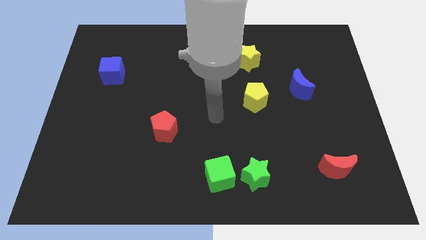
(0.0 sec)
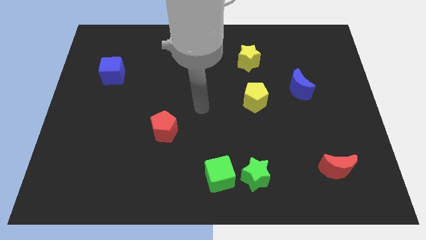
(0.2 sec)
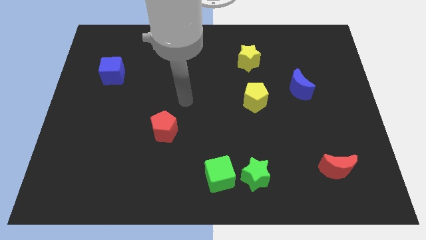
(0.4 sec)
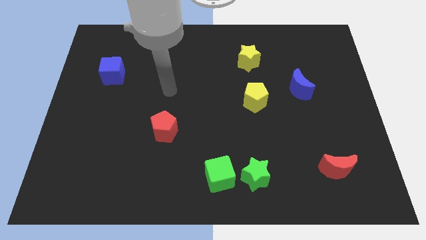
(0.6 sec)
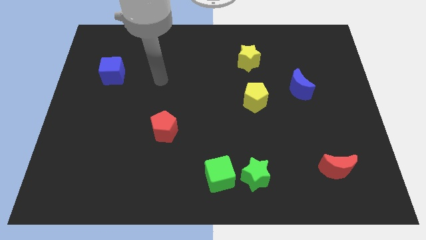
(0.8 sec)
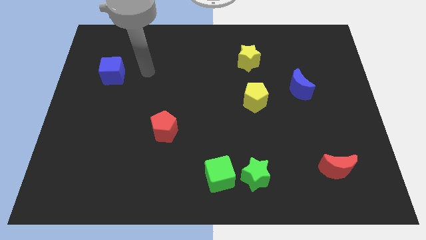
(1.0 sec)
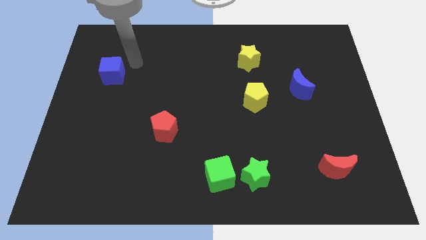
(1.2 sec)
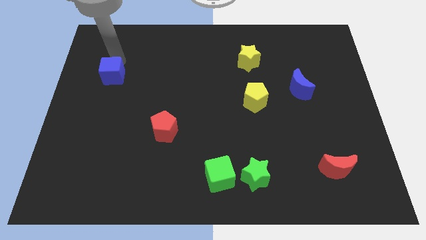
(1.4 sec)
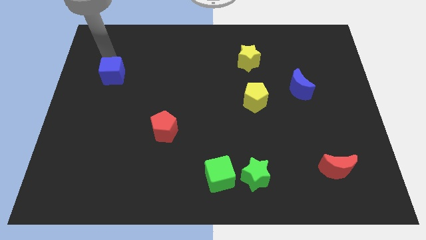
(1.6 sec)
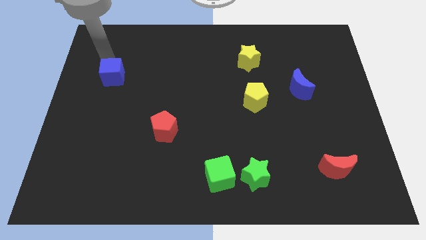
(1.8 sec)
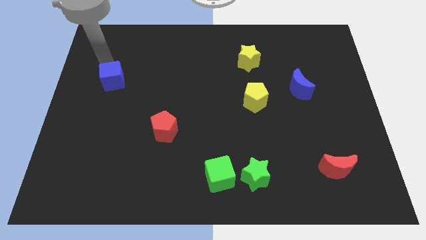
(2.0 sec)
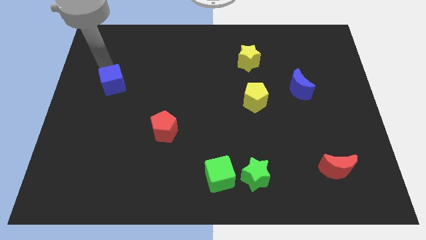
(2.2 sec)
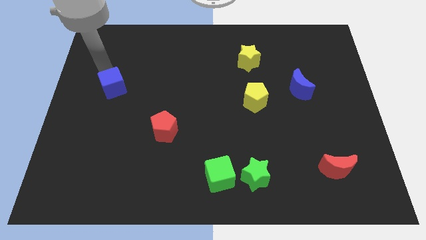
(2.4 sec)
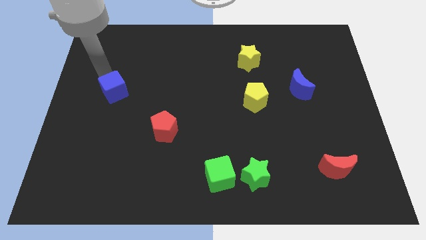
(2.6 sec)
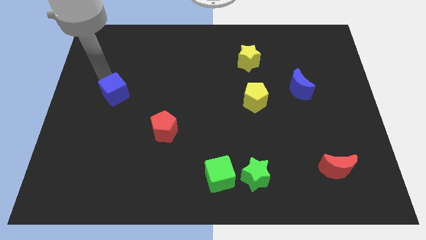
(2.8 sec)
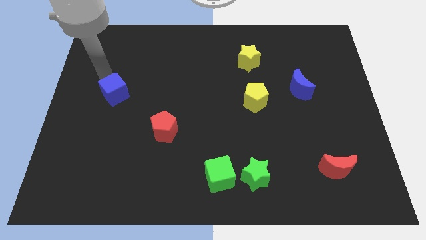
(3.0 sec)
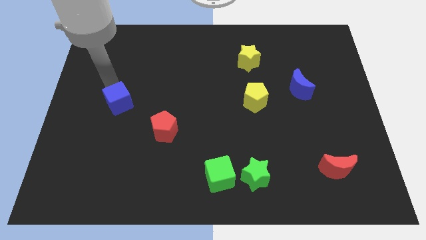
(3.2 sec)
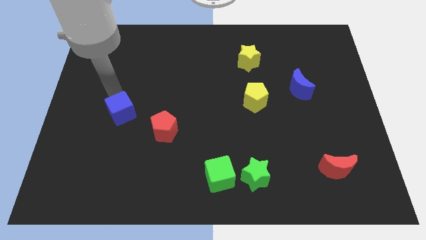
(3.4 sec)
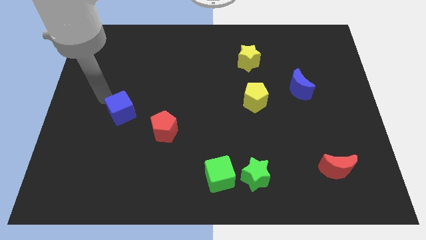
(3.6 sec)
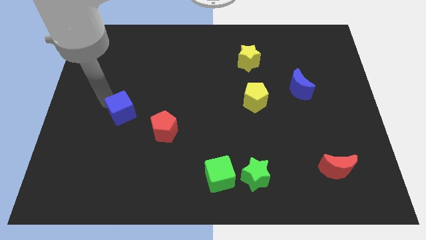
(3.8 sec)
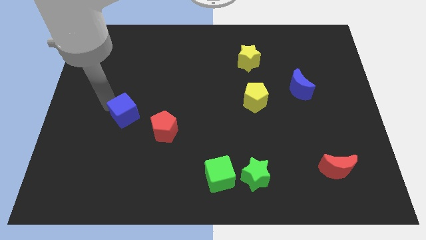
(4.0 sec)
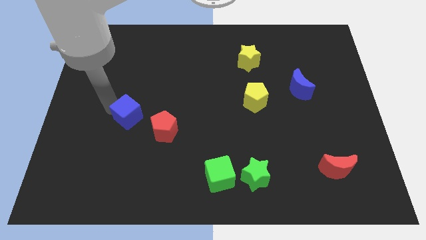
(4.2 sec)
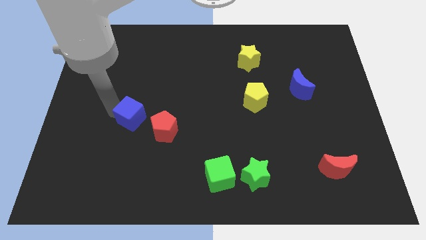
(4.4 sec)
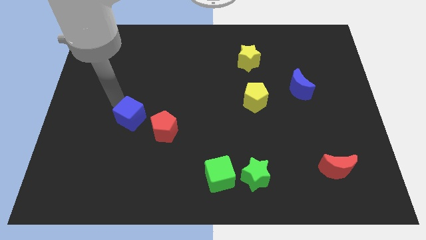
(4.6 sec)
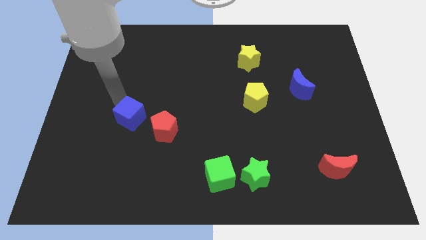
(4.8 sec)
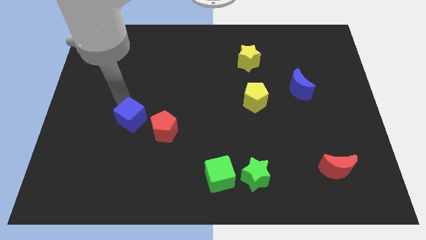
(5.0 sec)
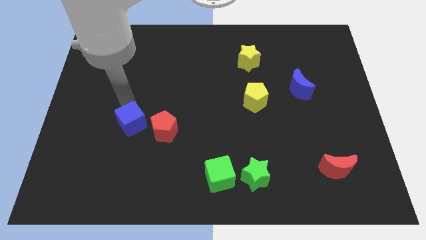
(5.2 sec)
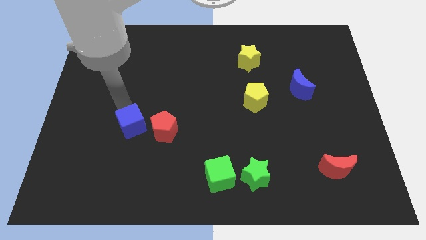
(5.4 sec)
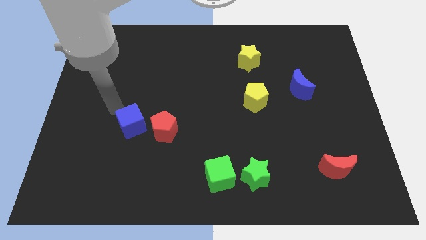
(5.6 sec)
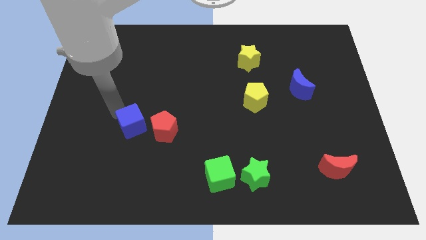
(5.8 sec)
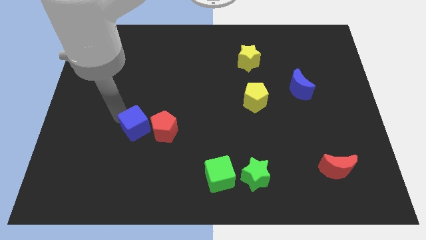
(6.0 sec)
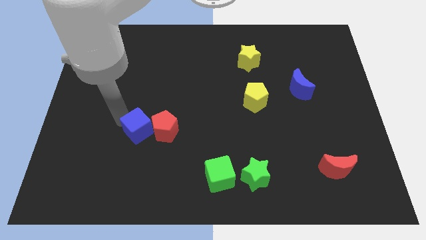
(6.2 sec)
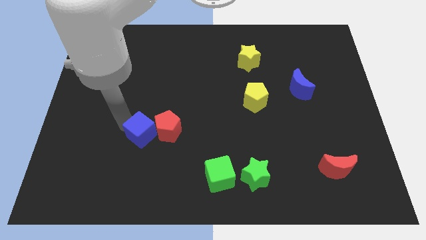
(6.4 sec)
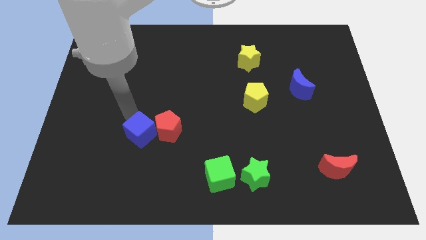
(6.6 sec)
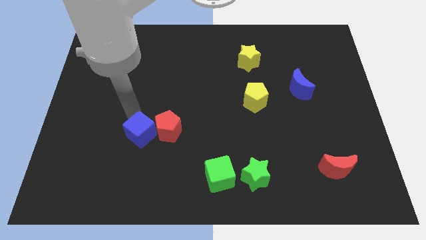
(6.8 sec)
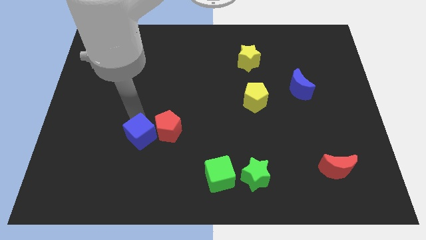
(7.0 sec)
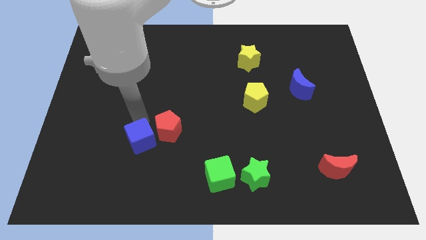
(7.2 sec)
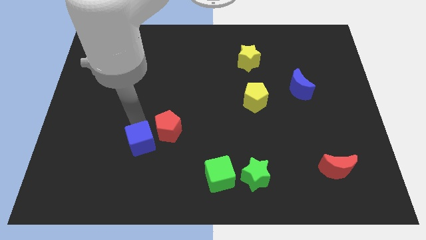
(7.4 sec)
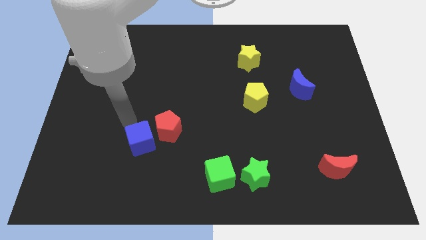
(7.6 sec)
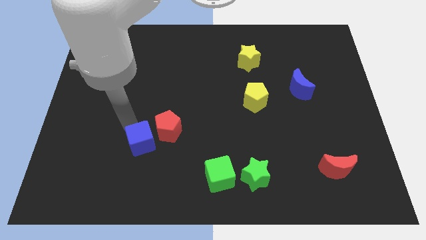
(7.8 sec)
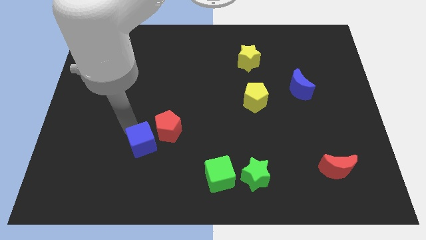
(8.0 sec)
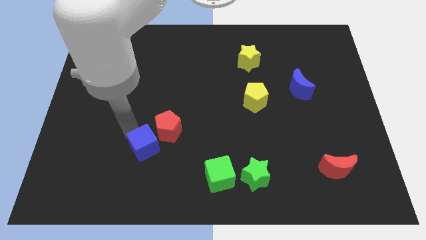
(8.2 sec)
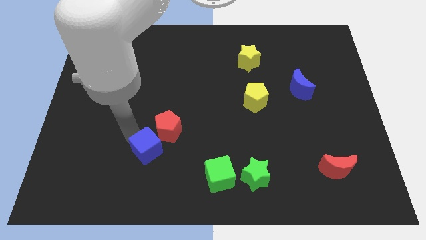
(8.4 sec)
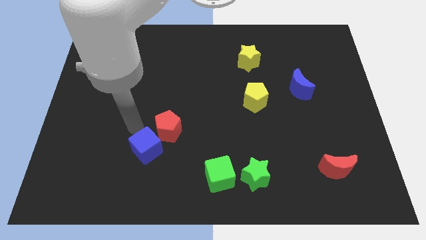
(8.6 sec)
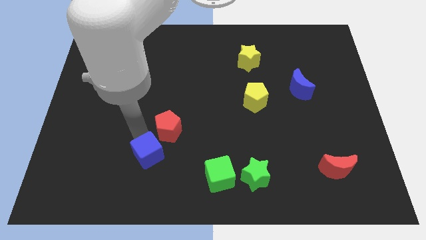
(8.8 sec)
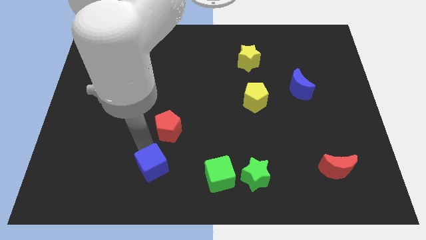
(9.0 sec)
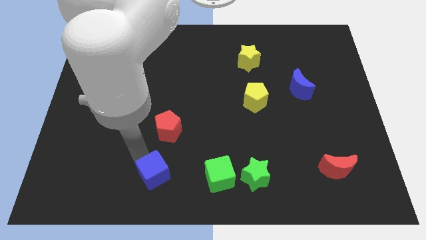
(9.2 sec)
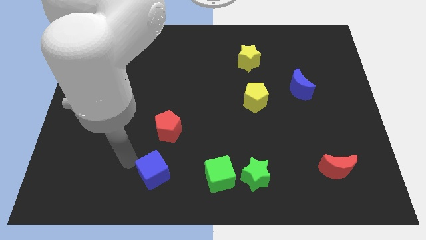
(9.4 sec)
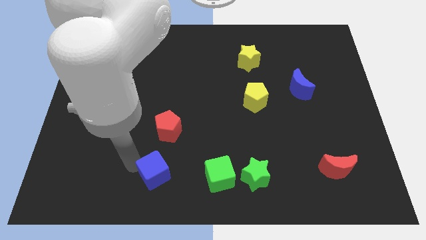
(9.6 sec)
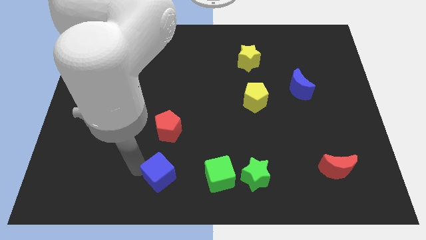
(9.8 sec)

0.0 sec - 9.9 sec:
push the blue cube to the bottom

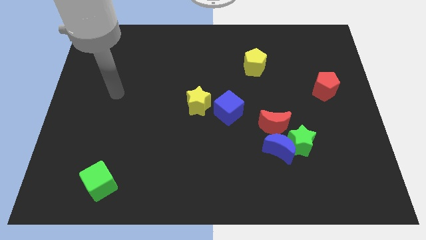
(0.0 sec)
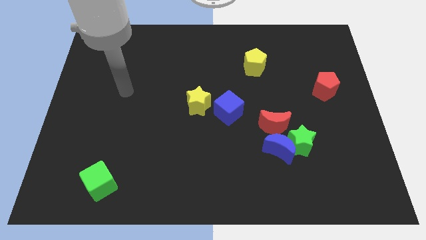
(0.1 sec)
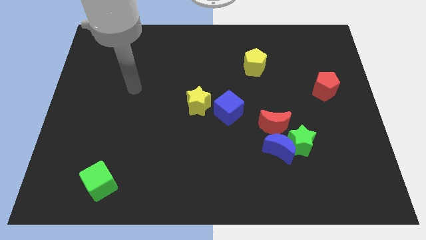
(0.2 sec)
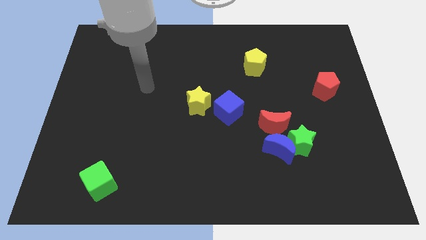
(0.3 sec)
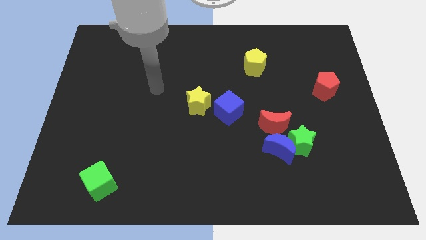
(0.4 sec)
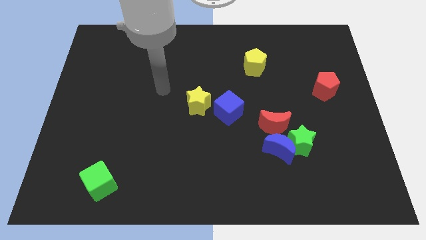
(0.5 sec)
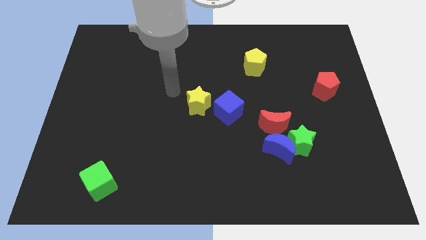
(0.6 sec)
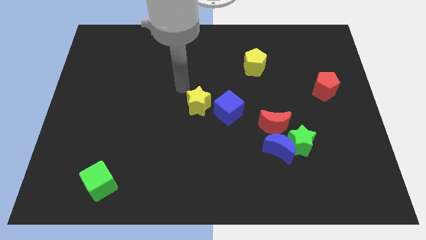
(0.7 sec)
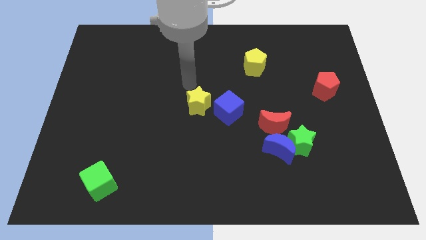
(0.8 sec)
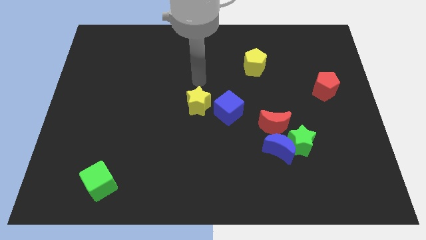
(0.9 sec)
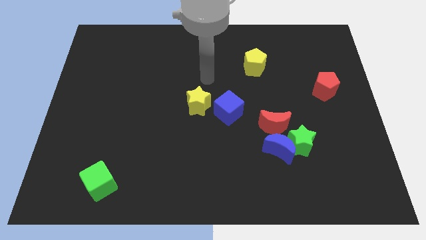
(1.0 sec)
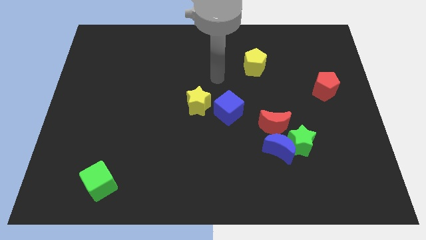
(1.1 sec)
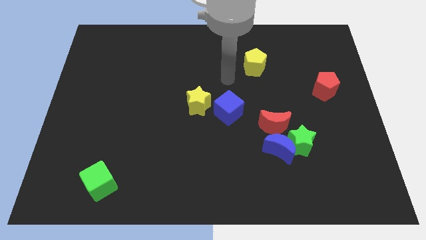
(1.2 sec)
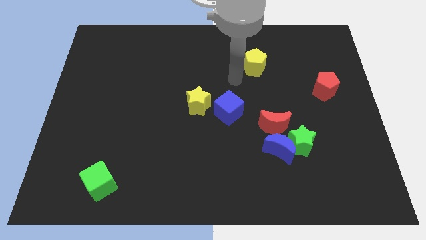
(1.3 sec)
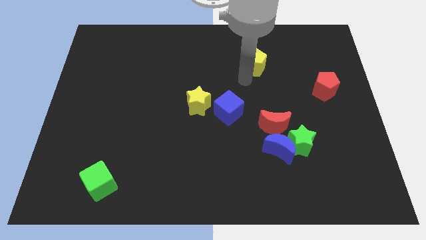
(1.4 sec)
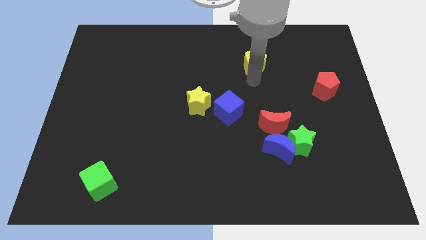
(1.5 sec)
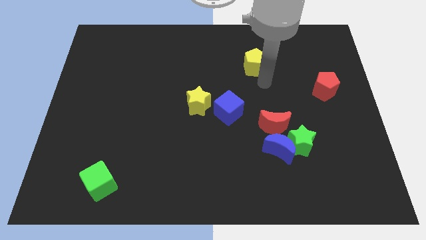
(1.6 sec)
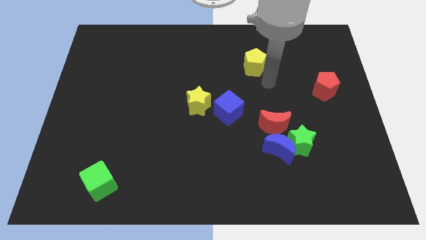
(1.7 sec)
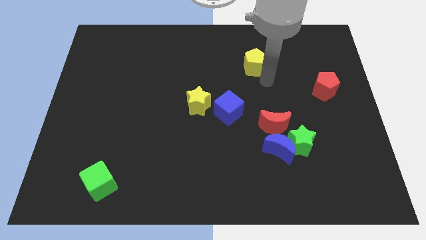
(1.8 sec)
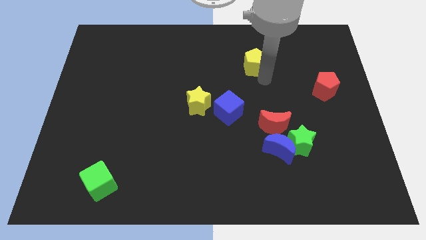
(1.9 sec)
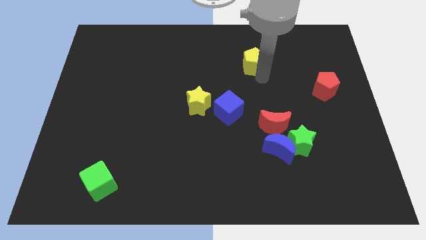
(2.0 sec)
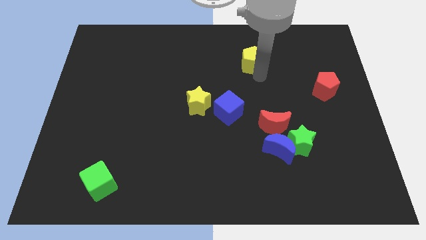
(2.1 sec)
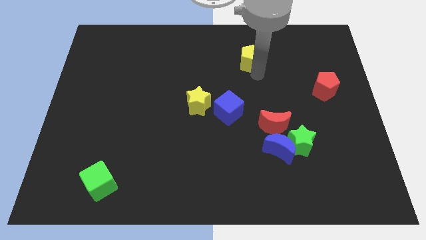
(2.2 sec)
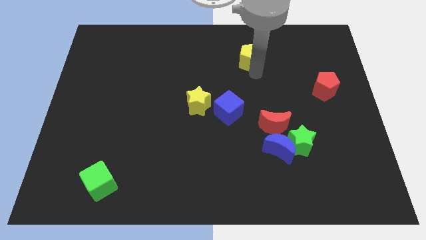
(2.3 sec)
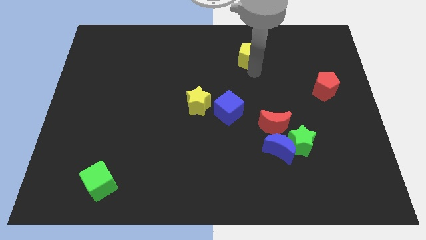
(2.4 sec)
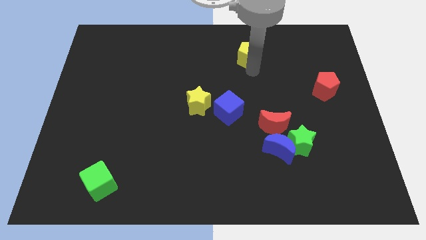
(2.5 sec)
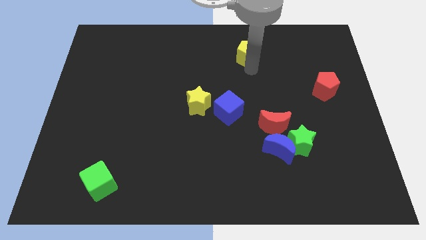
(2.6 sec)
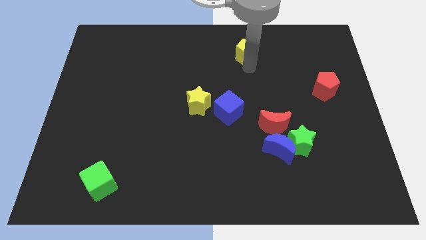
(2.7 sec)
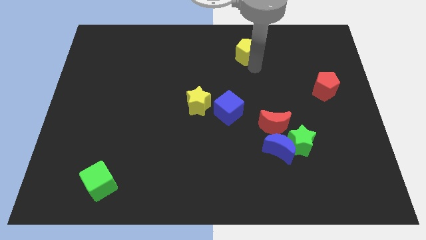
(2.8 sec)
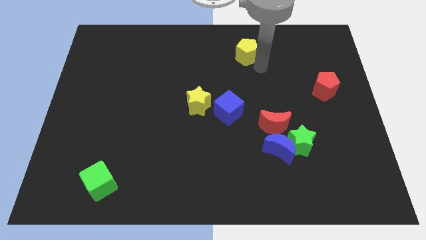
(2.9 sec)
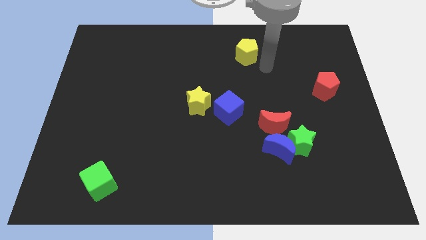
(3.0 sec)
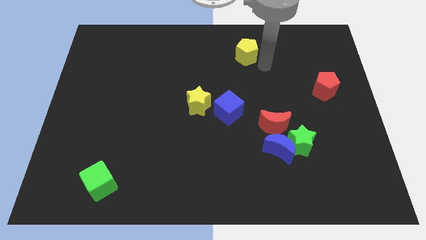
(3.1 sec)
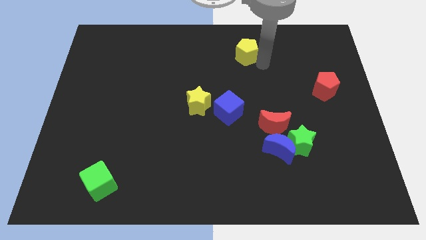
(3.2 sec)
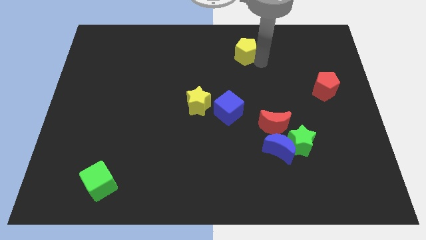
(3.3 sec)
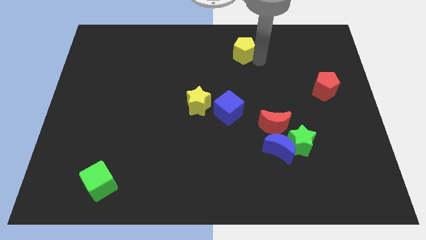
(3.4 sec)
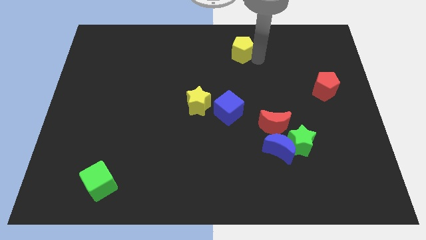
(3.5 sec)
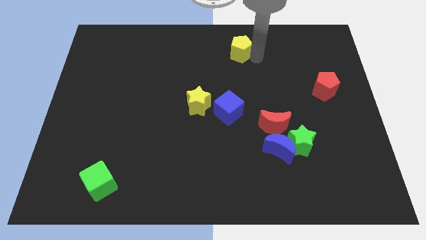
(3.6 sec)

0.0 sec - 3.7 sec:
move the yellow pentagon to the top
